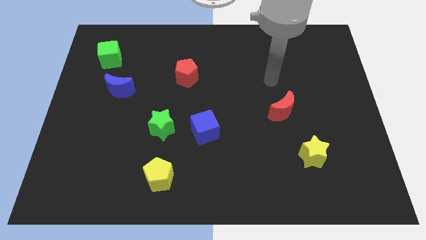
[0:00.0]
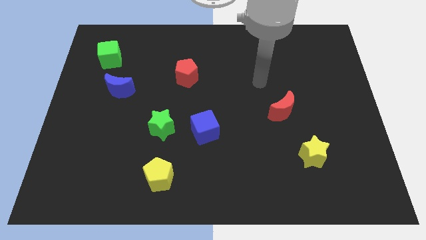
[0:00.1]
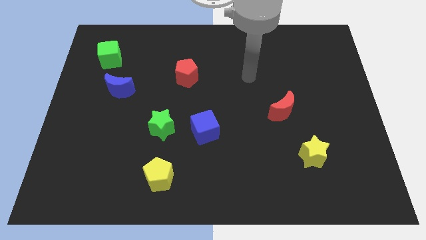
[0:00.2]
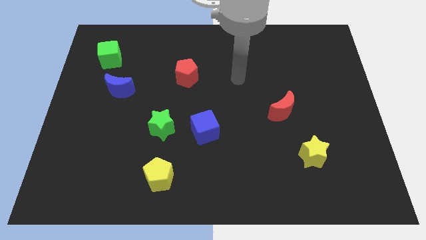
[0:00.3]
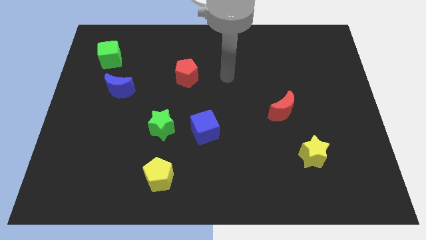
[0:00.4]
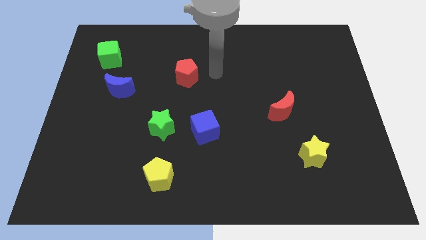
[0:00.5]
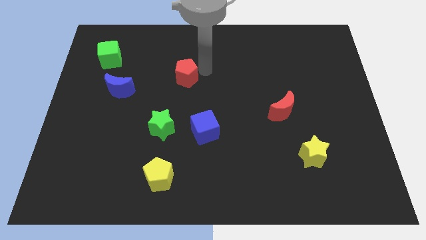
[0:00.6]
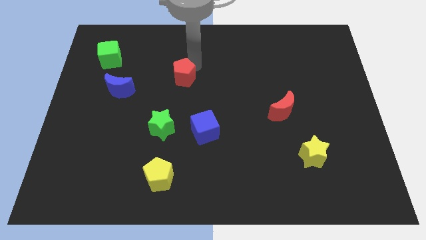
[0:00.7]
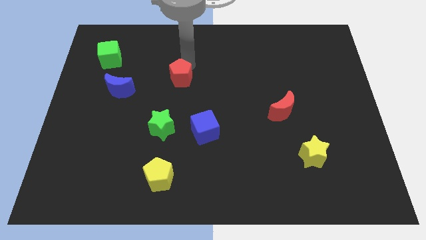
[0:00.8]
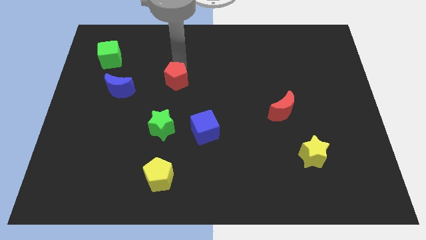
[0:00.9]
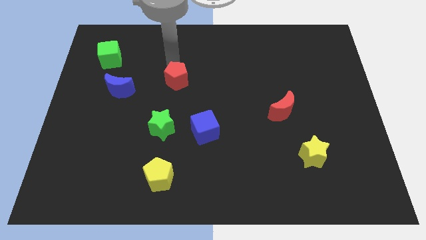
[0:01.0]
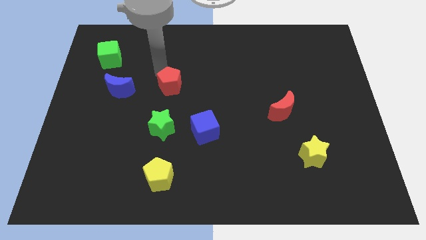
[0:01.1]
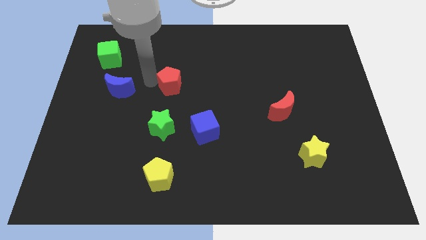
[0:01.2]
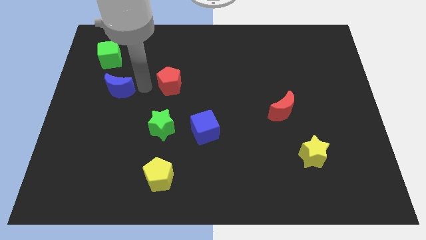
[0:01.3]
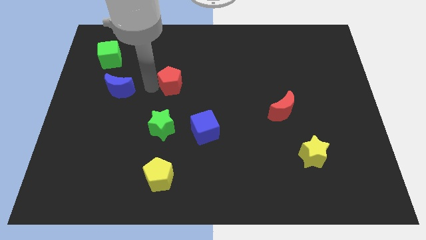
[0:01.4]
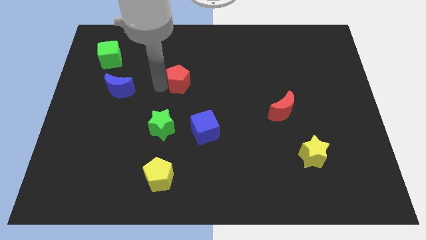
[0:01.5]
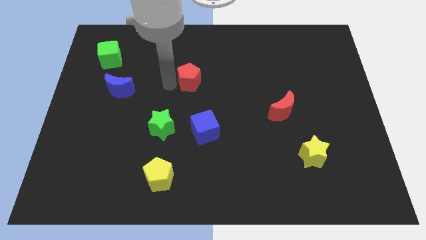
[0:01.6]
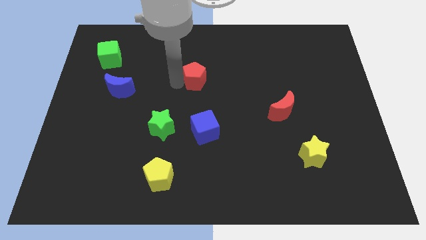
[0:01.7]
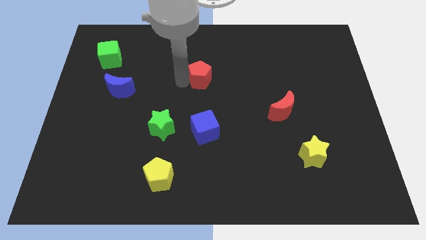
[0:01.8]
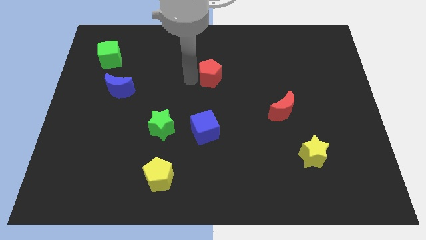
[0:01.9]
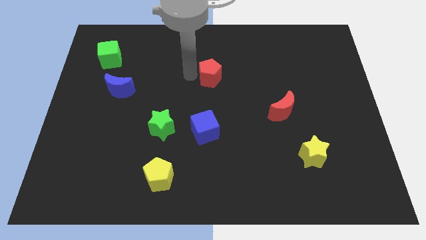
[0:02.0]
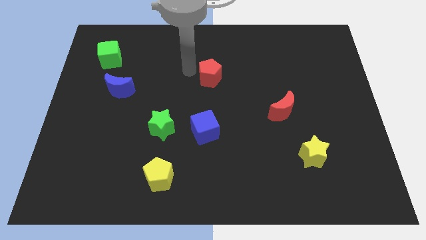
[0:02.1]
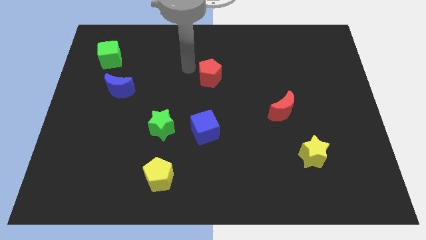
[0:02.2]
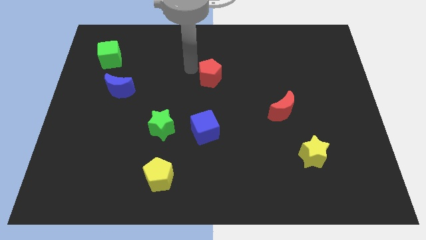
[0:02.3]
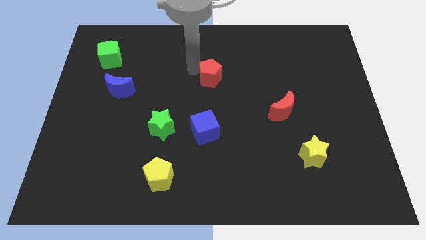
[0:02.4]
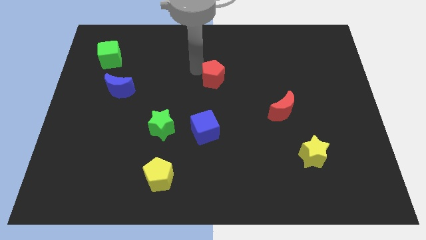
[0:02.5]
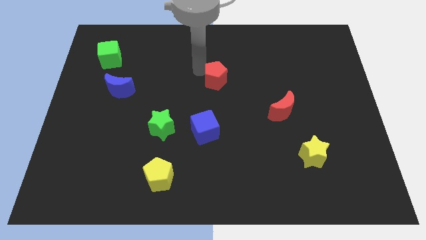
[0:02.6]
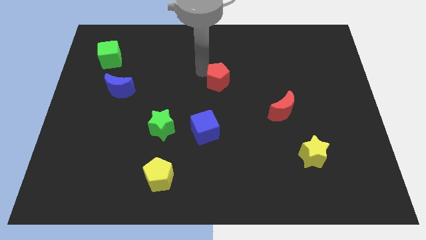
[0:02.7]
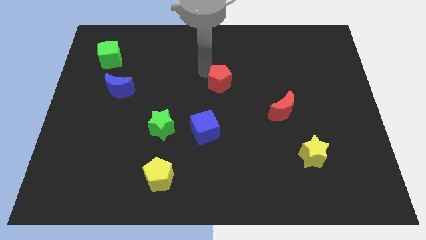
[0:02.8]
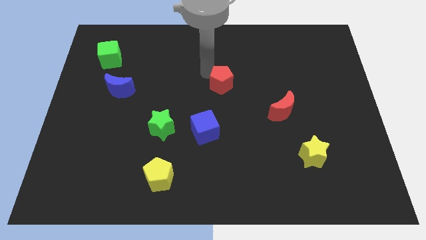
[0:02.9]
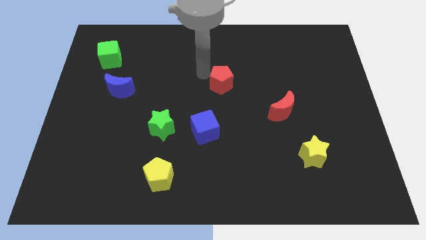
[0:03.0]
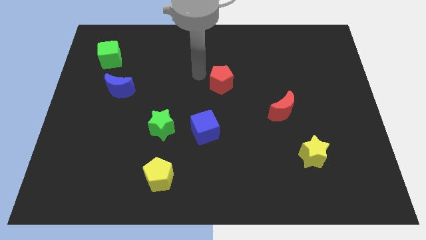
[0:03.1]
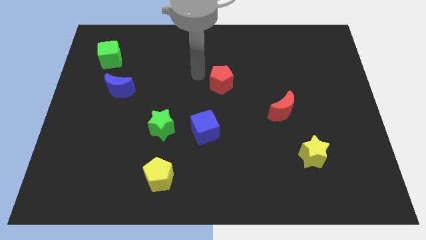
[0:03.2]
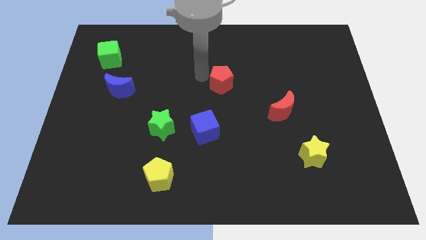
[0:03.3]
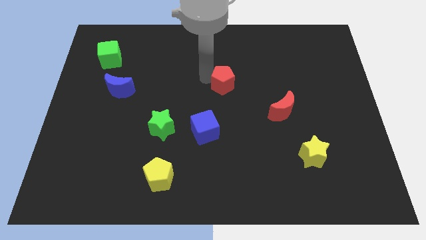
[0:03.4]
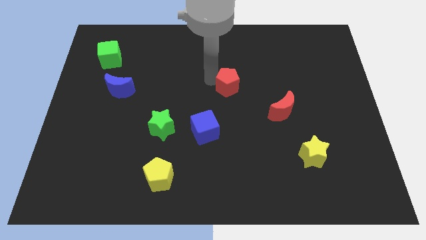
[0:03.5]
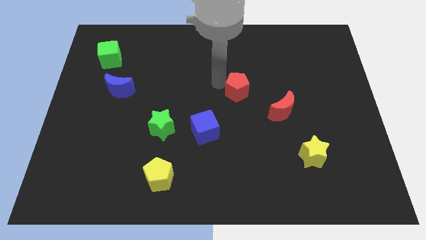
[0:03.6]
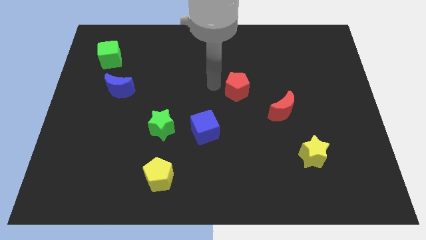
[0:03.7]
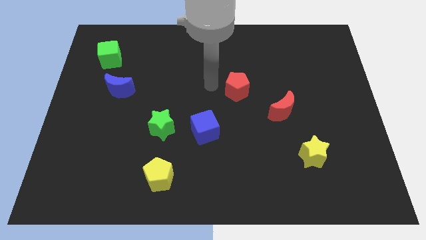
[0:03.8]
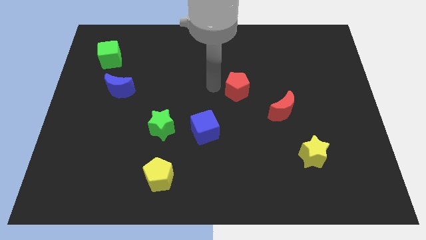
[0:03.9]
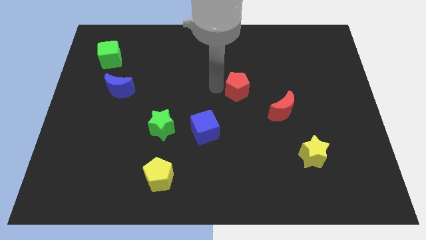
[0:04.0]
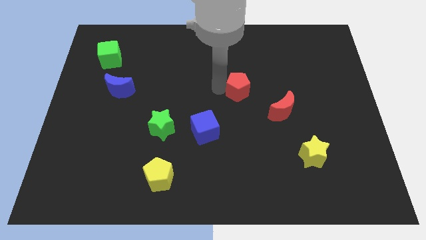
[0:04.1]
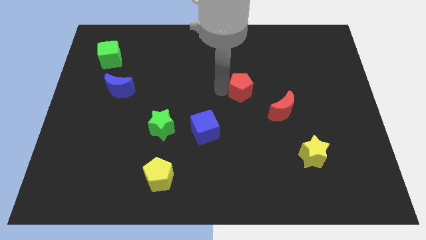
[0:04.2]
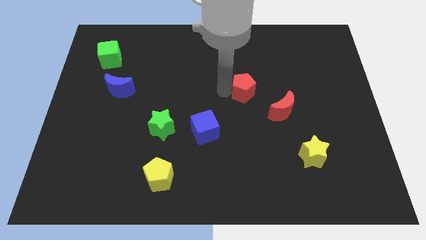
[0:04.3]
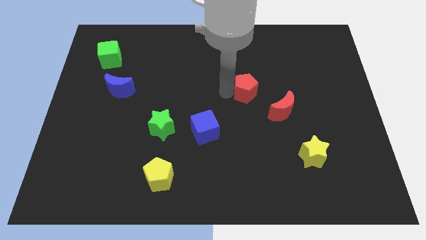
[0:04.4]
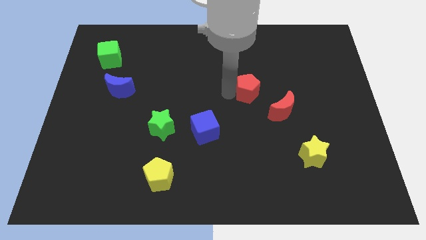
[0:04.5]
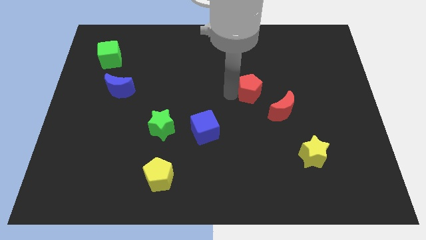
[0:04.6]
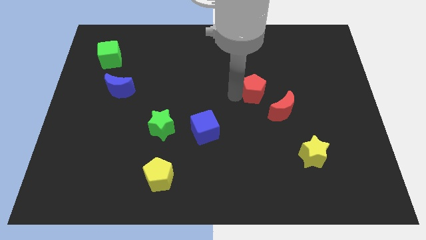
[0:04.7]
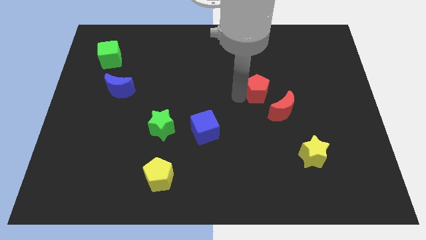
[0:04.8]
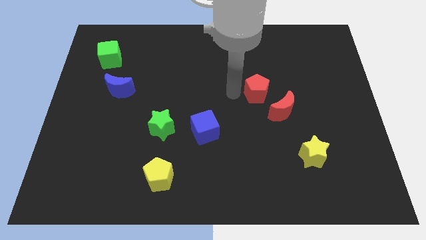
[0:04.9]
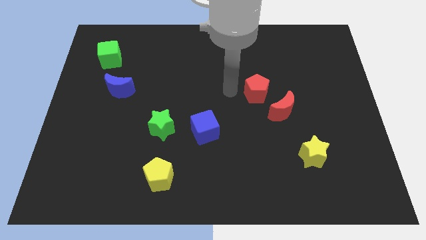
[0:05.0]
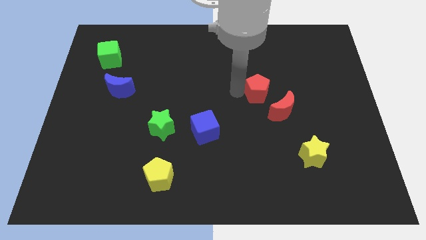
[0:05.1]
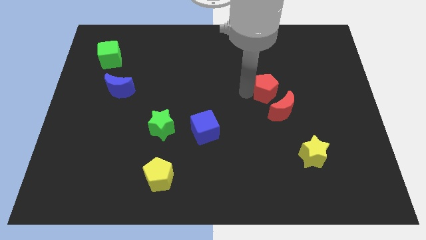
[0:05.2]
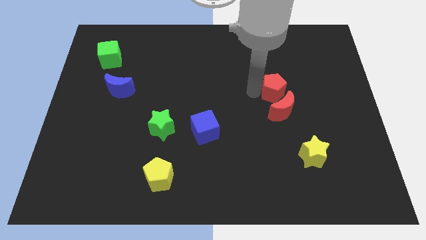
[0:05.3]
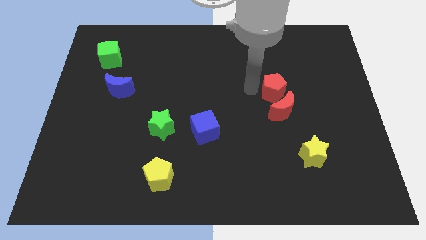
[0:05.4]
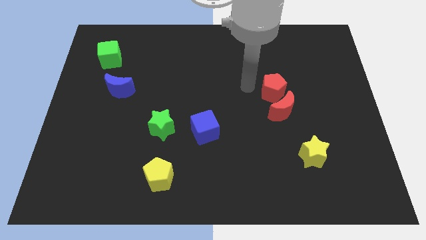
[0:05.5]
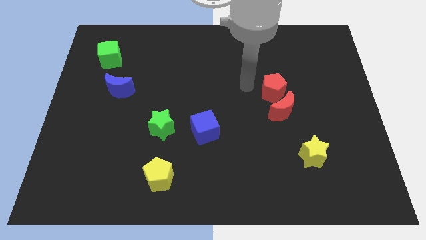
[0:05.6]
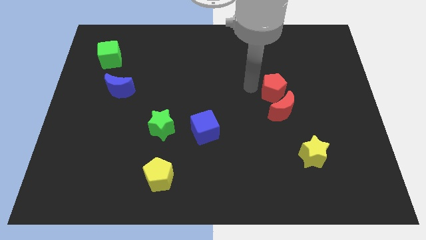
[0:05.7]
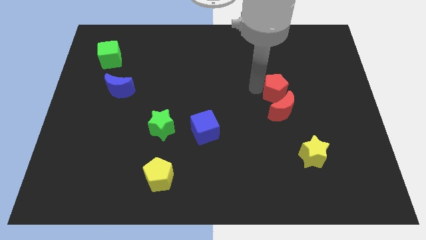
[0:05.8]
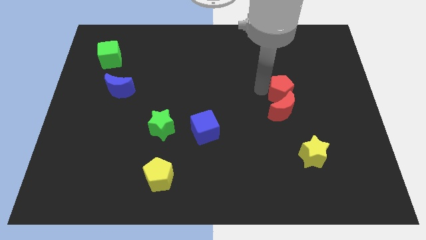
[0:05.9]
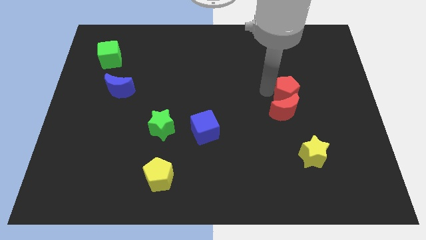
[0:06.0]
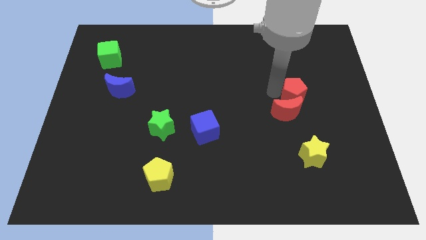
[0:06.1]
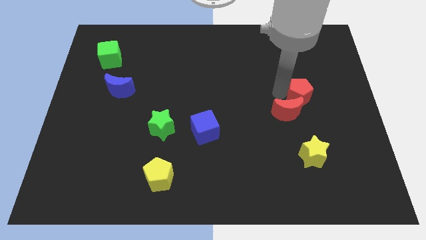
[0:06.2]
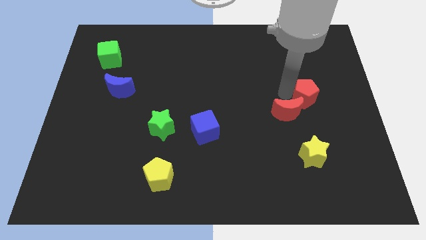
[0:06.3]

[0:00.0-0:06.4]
put the red pentagon just right of the red moon

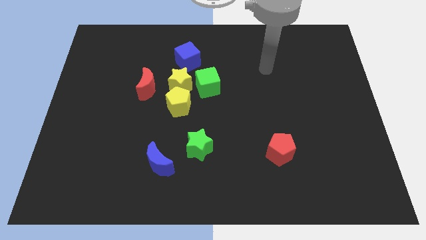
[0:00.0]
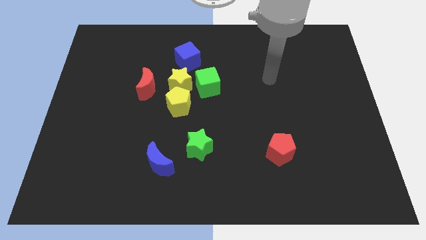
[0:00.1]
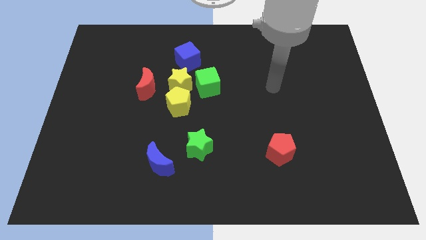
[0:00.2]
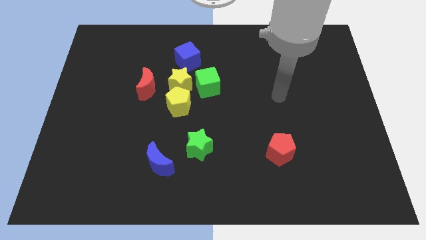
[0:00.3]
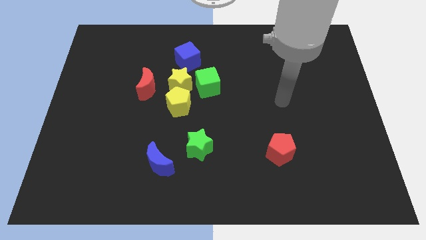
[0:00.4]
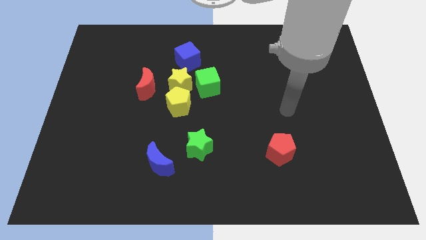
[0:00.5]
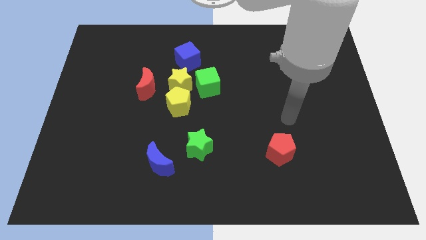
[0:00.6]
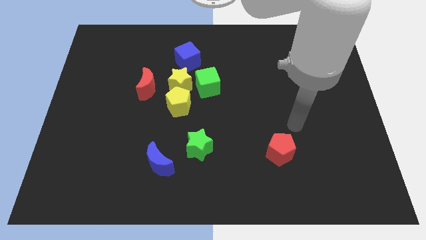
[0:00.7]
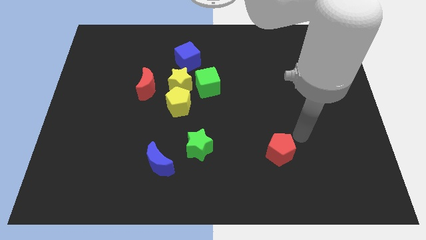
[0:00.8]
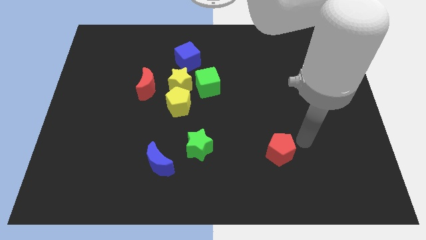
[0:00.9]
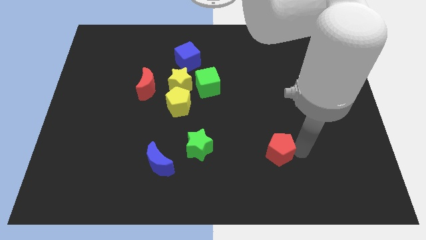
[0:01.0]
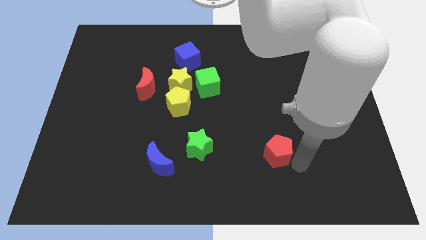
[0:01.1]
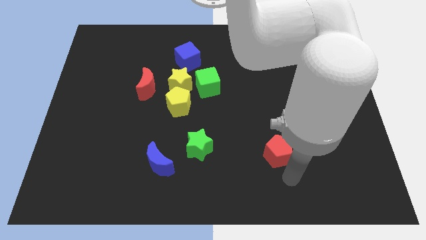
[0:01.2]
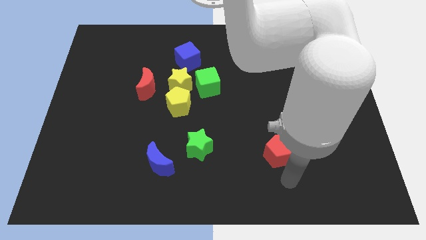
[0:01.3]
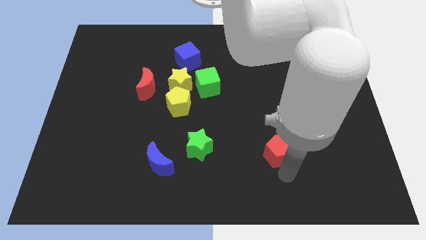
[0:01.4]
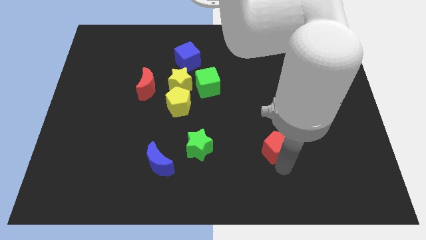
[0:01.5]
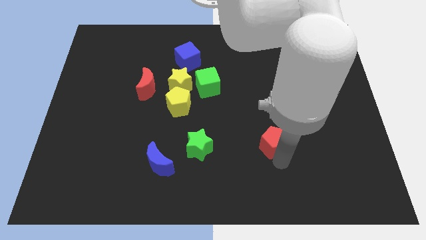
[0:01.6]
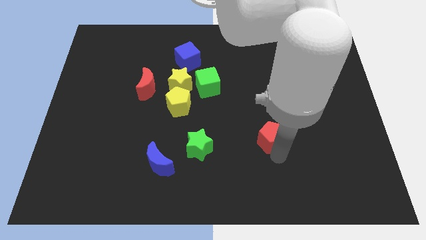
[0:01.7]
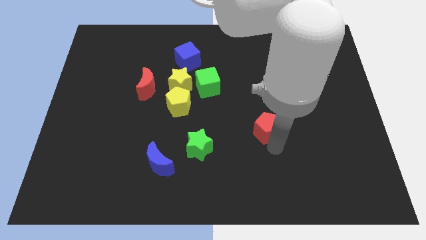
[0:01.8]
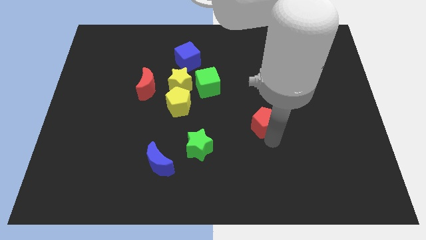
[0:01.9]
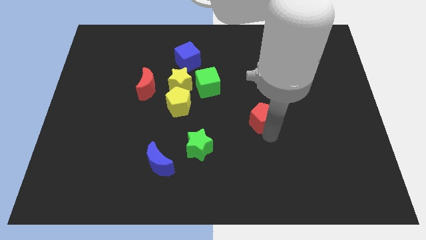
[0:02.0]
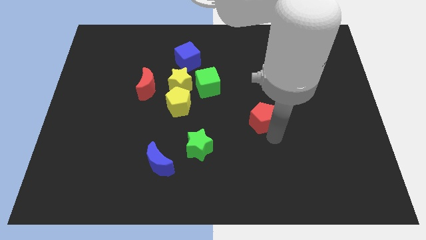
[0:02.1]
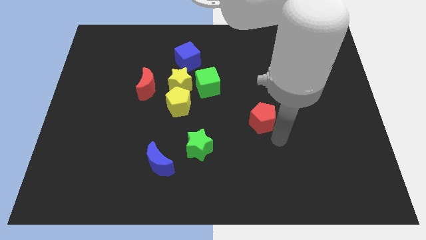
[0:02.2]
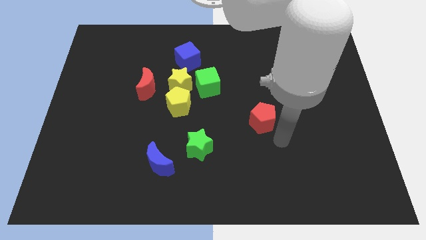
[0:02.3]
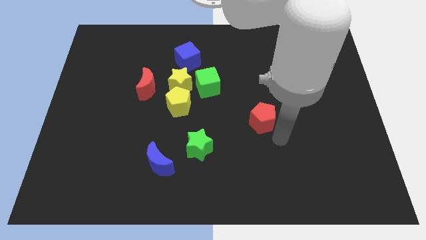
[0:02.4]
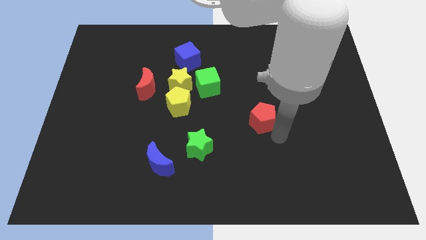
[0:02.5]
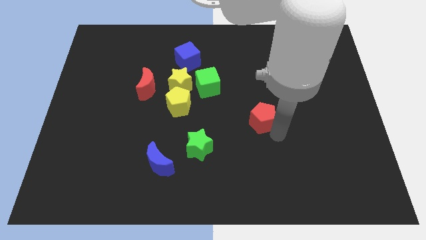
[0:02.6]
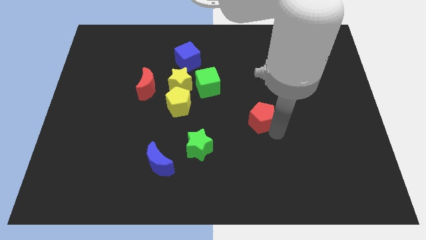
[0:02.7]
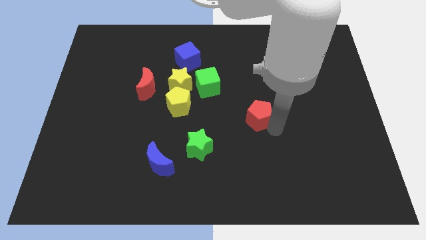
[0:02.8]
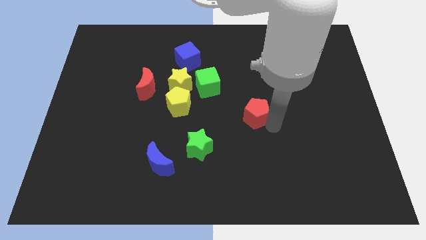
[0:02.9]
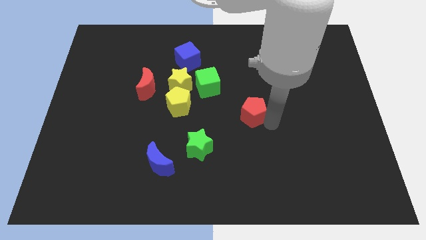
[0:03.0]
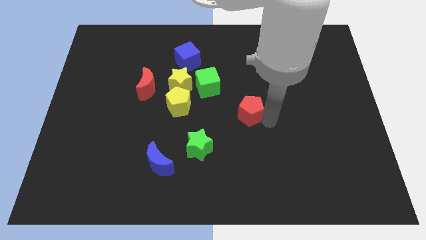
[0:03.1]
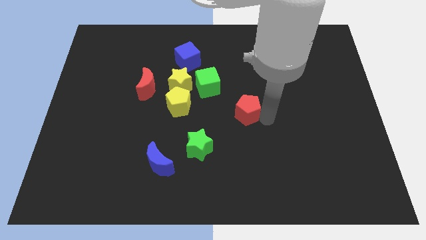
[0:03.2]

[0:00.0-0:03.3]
move the red pentagon to the bottom right of the green cube
